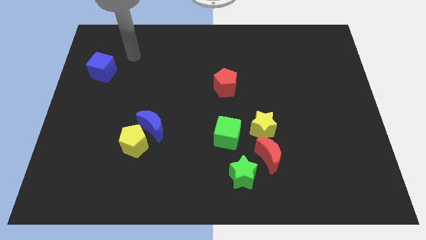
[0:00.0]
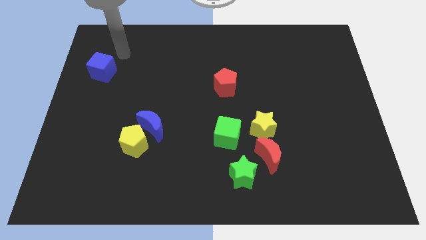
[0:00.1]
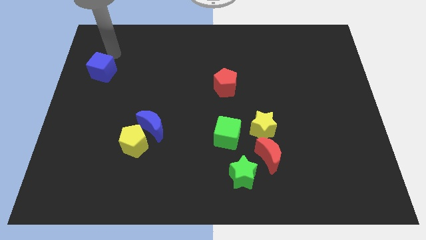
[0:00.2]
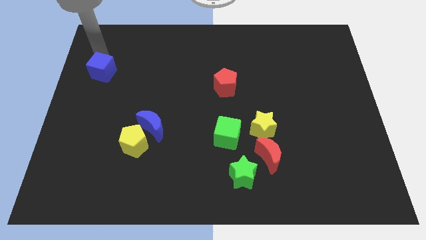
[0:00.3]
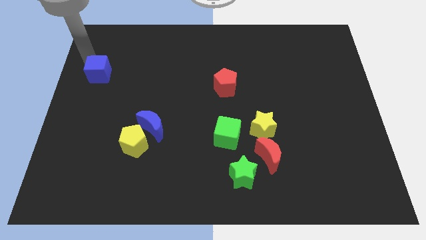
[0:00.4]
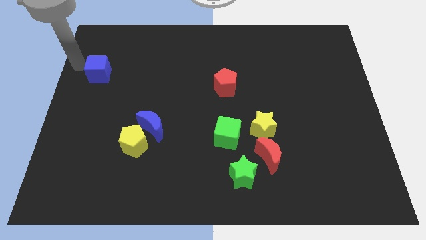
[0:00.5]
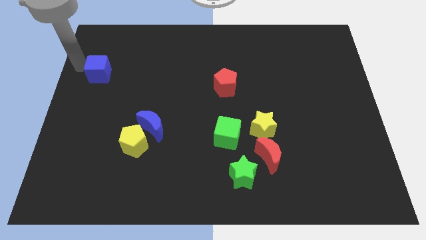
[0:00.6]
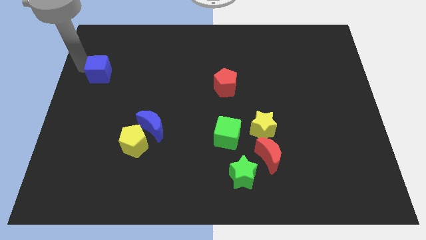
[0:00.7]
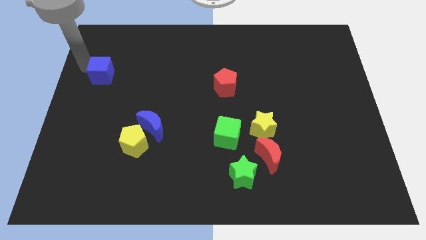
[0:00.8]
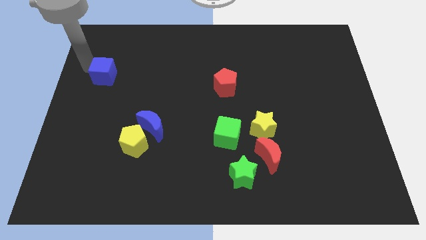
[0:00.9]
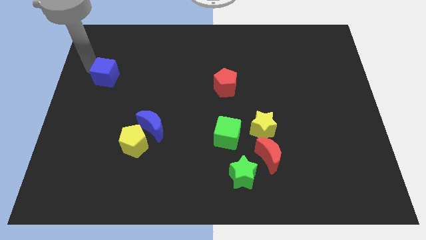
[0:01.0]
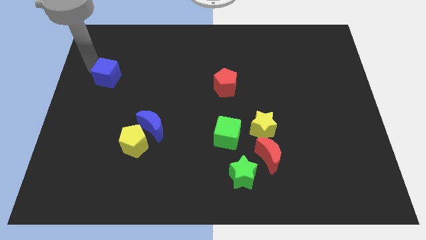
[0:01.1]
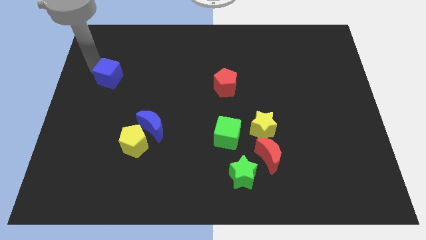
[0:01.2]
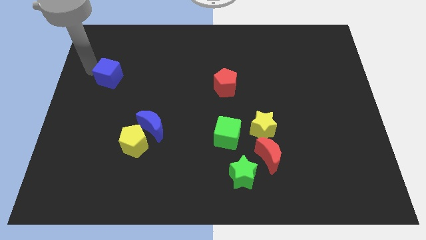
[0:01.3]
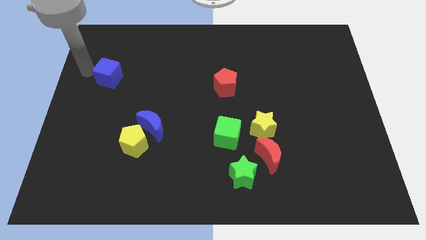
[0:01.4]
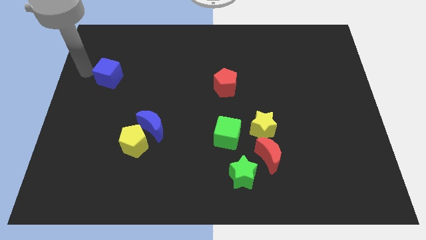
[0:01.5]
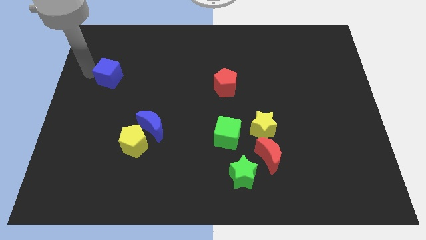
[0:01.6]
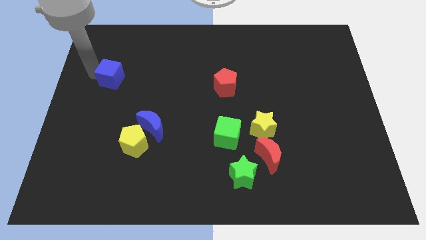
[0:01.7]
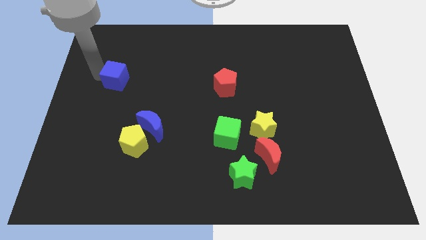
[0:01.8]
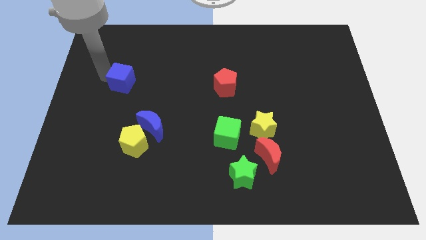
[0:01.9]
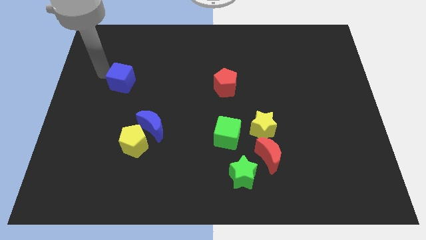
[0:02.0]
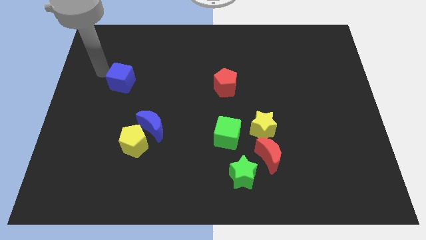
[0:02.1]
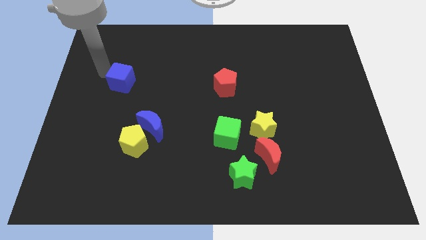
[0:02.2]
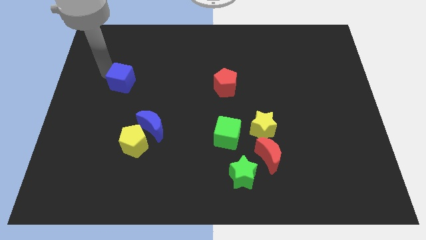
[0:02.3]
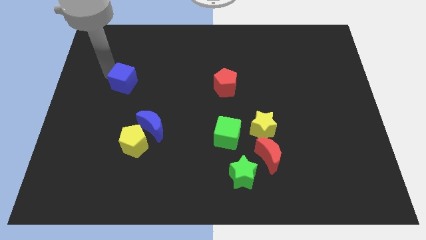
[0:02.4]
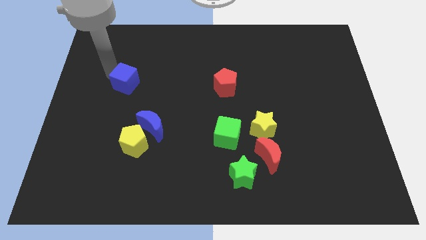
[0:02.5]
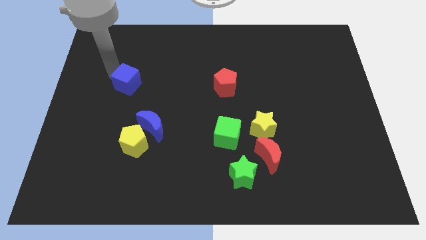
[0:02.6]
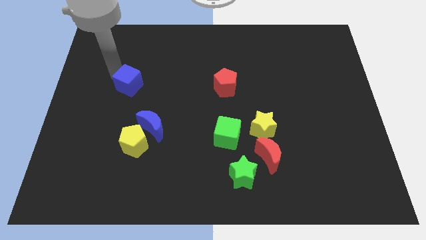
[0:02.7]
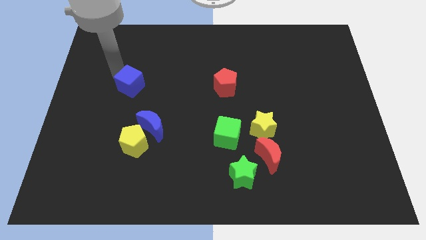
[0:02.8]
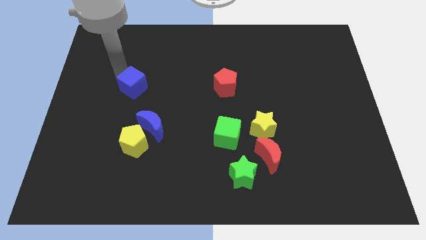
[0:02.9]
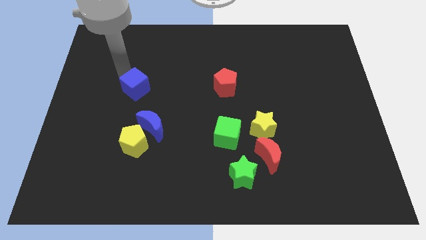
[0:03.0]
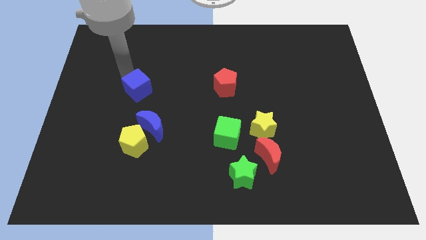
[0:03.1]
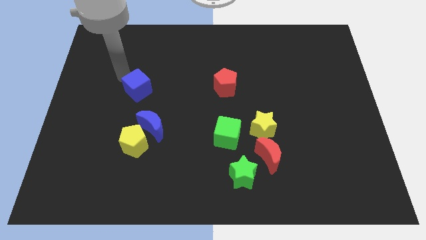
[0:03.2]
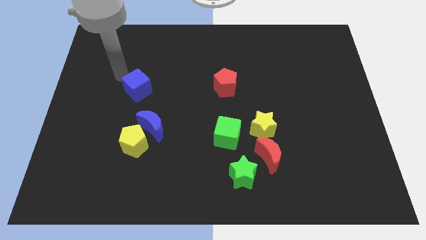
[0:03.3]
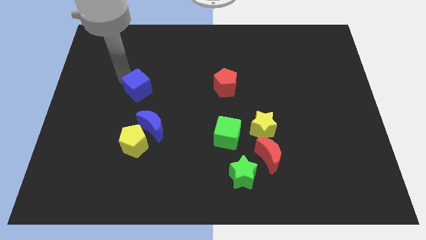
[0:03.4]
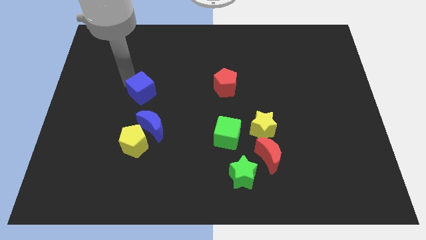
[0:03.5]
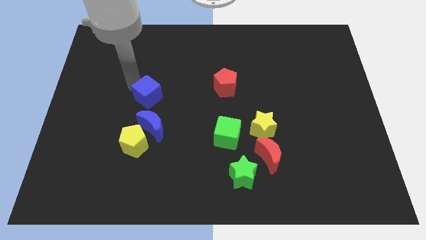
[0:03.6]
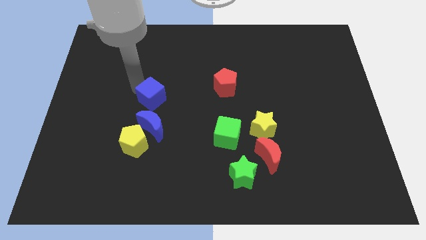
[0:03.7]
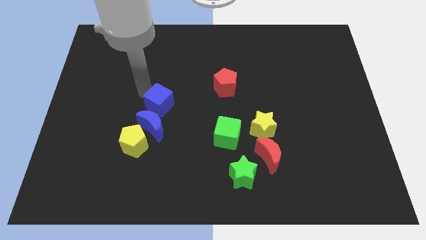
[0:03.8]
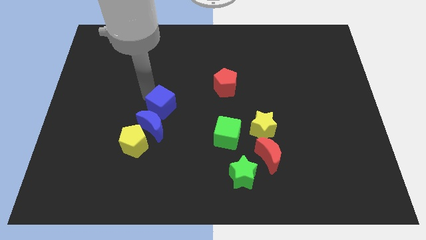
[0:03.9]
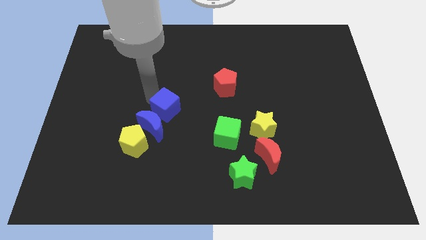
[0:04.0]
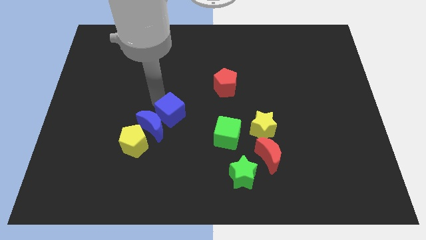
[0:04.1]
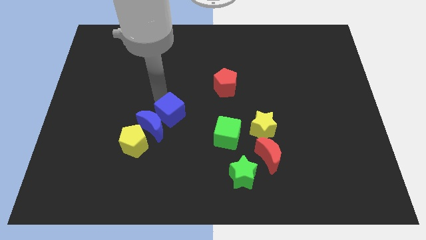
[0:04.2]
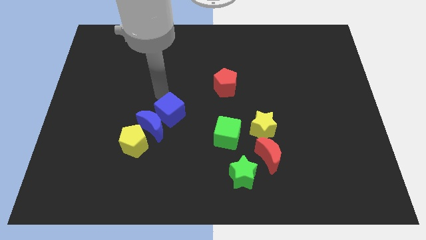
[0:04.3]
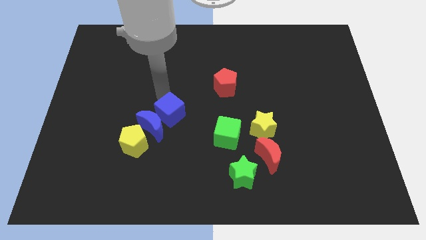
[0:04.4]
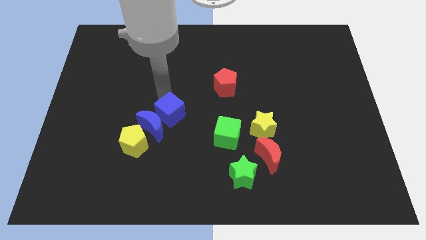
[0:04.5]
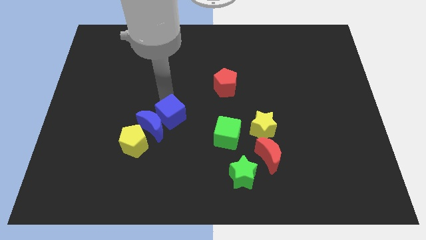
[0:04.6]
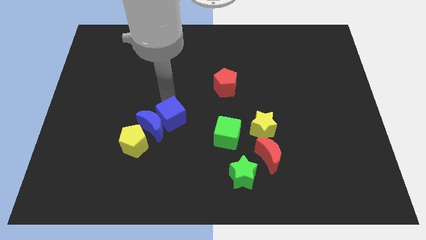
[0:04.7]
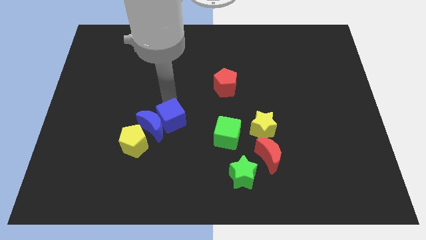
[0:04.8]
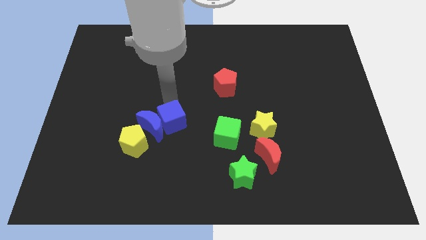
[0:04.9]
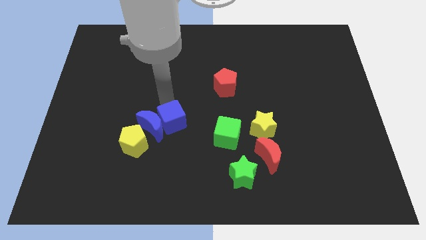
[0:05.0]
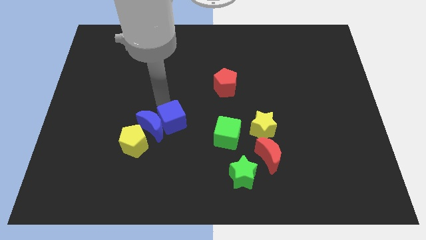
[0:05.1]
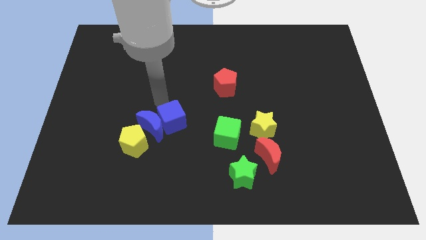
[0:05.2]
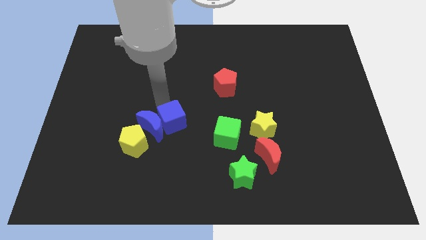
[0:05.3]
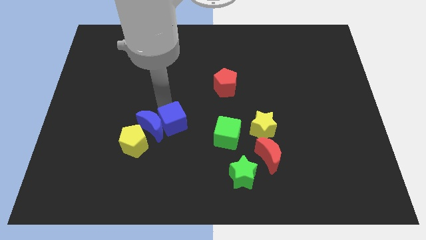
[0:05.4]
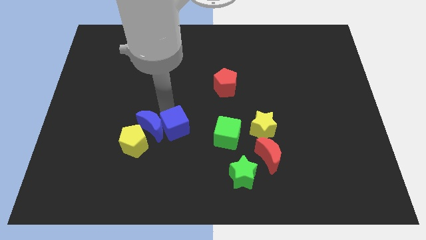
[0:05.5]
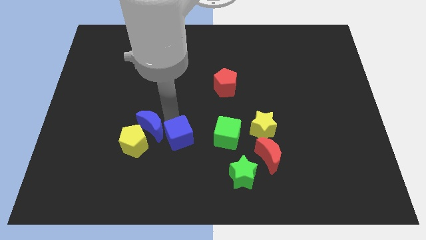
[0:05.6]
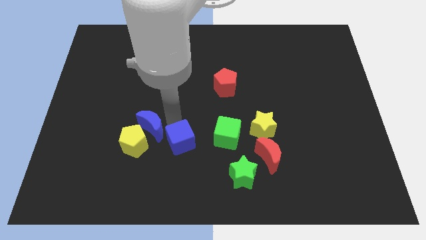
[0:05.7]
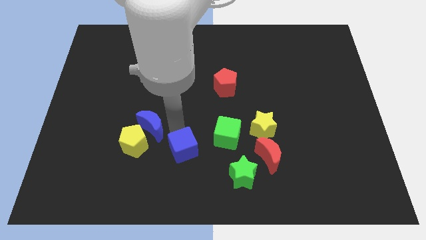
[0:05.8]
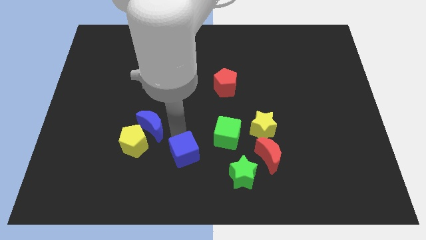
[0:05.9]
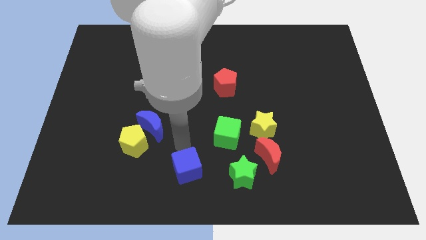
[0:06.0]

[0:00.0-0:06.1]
put the blue cube to the bottom
